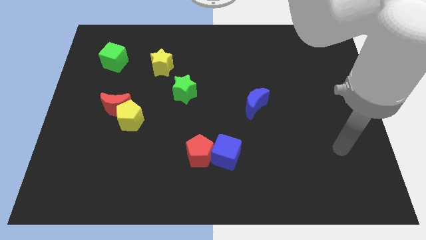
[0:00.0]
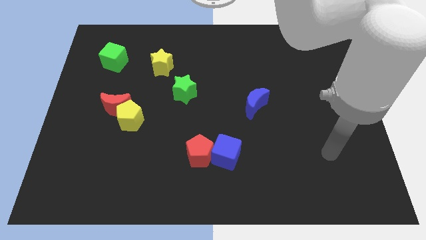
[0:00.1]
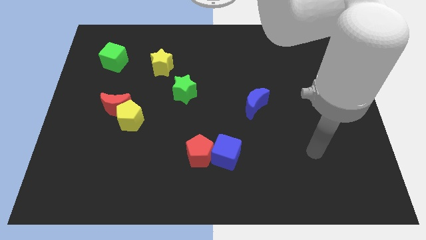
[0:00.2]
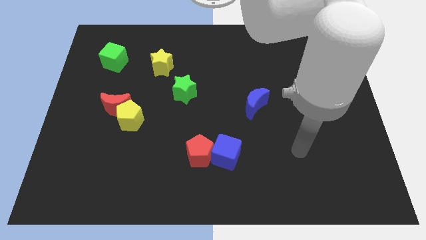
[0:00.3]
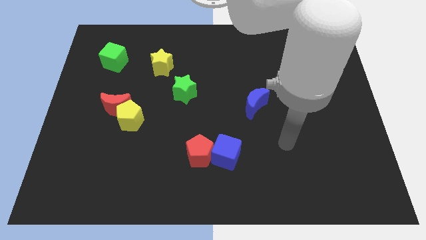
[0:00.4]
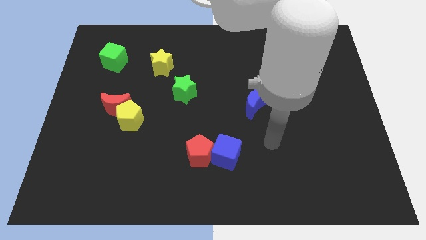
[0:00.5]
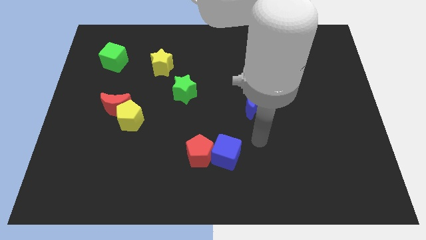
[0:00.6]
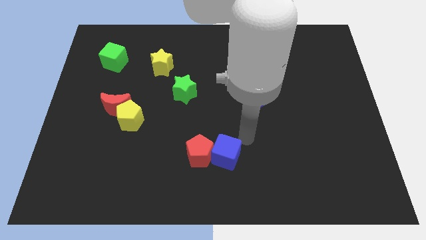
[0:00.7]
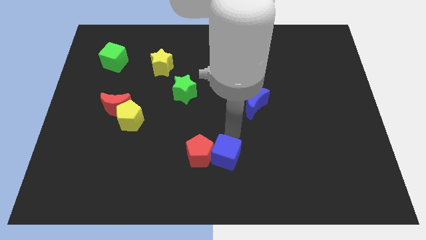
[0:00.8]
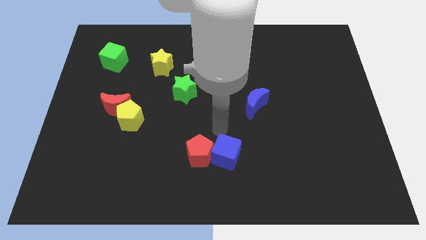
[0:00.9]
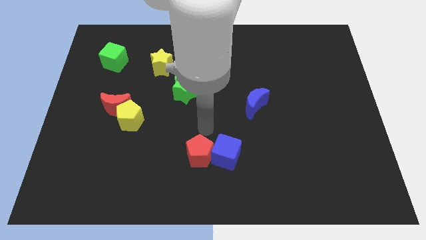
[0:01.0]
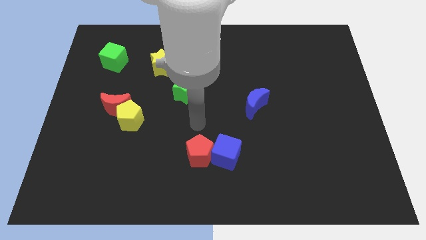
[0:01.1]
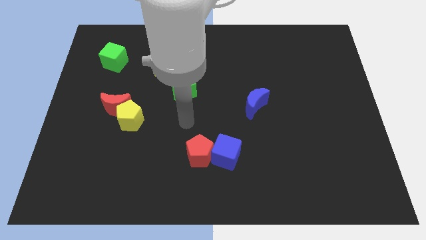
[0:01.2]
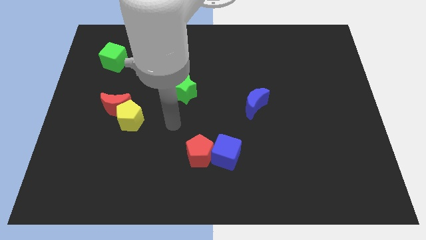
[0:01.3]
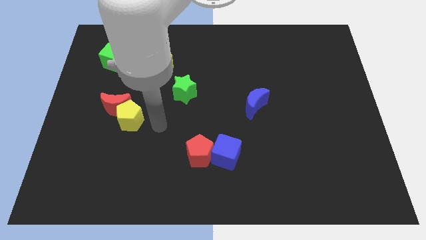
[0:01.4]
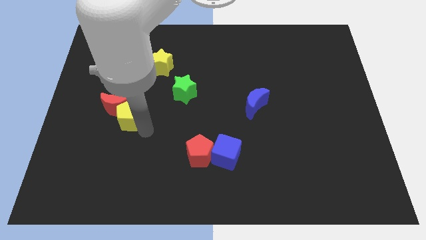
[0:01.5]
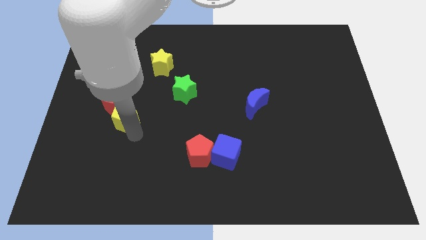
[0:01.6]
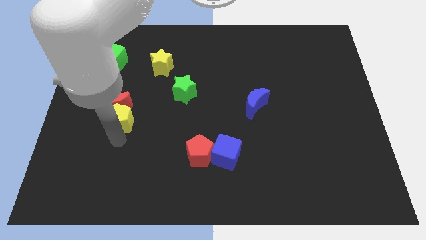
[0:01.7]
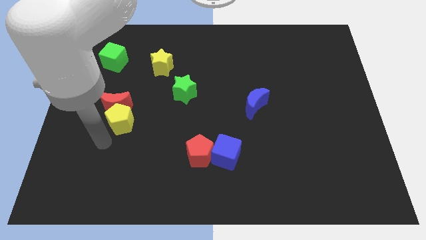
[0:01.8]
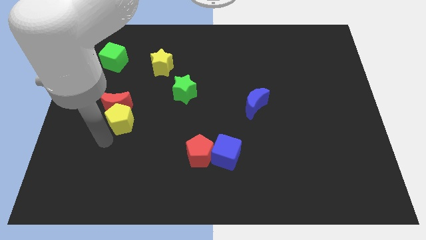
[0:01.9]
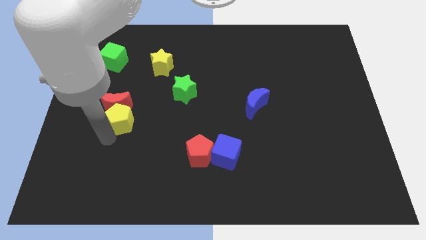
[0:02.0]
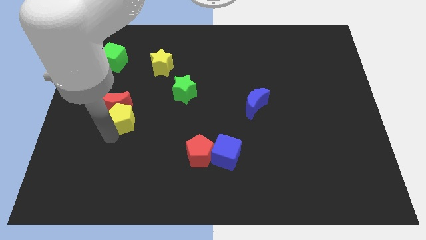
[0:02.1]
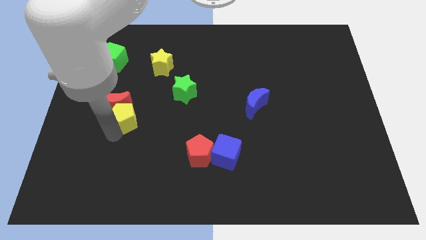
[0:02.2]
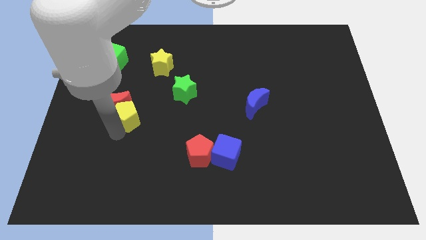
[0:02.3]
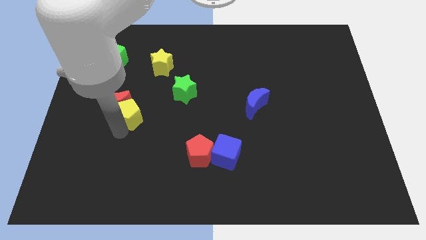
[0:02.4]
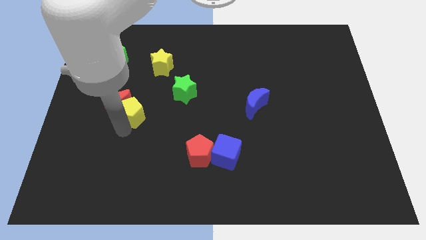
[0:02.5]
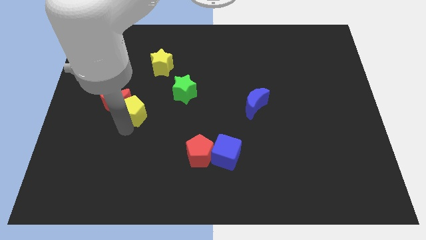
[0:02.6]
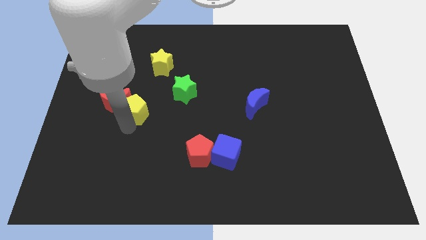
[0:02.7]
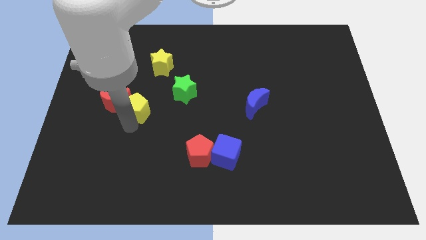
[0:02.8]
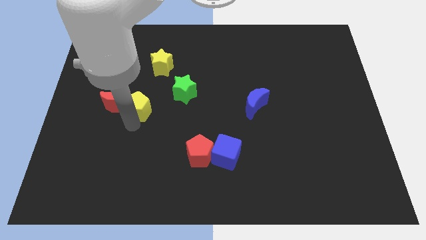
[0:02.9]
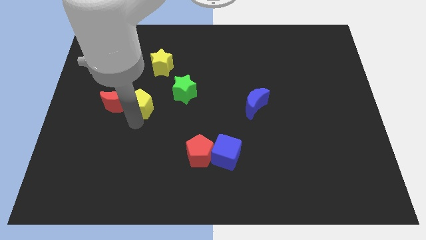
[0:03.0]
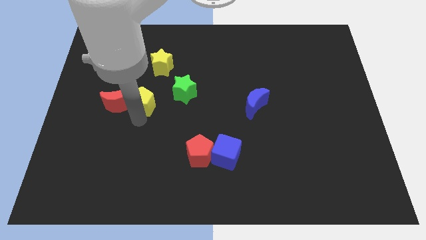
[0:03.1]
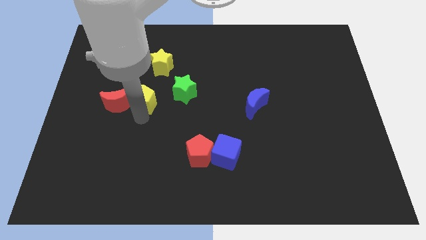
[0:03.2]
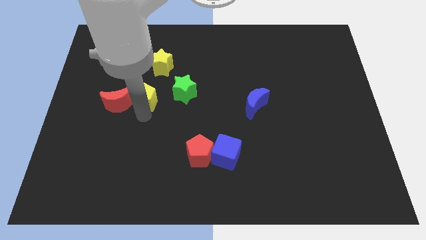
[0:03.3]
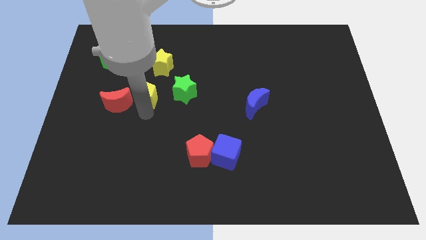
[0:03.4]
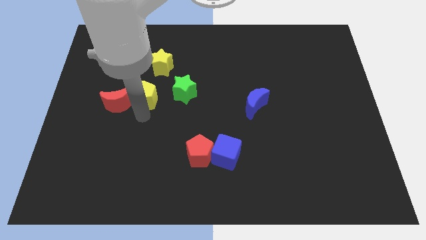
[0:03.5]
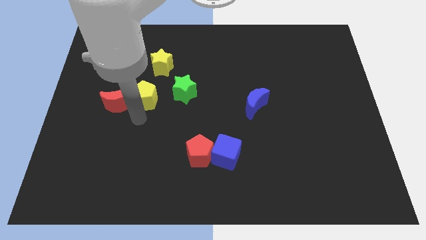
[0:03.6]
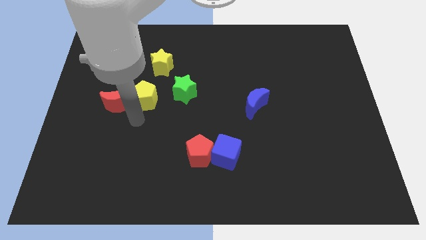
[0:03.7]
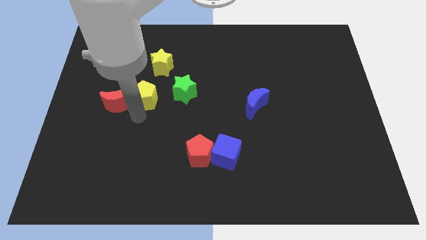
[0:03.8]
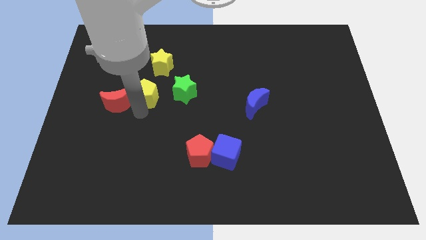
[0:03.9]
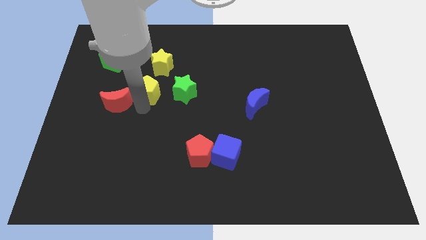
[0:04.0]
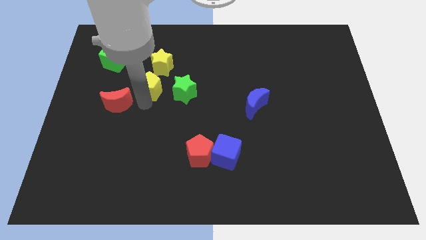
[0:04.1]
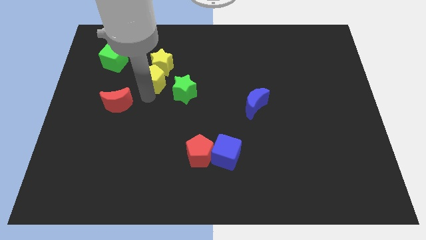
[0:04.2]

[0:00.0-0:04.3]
slide the yellow pentagon to the yellow star

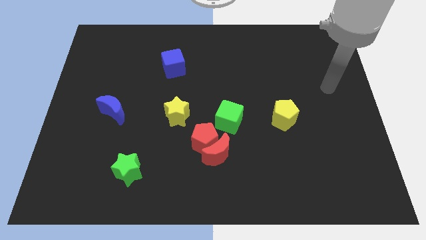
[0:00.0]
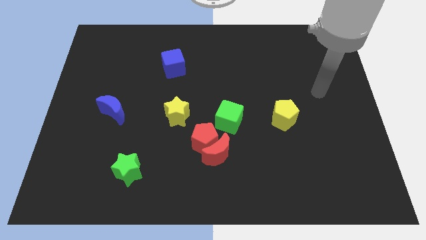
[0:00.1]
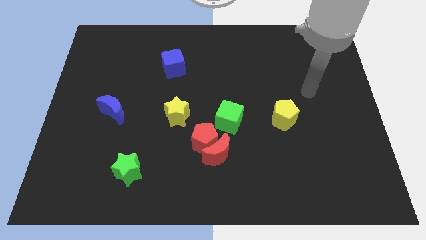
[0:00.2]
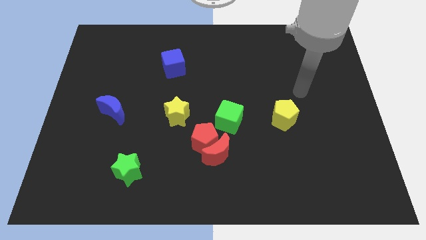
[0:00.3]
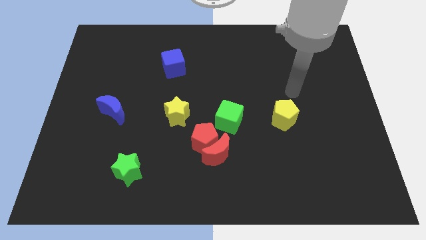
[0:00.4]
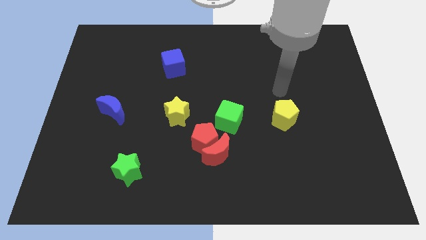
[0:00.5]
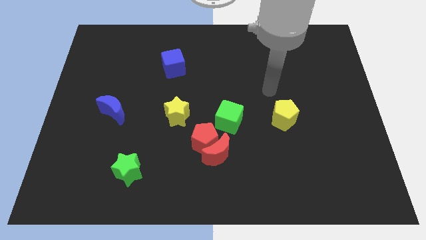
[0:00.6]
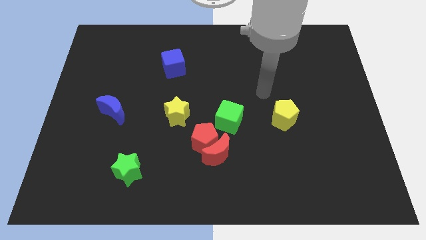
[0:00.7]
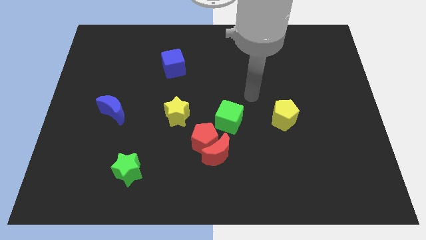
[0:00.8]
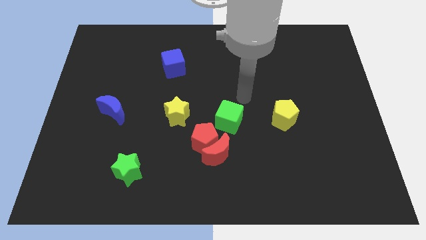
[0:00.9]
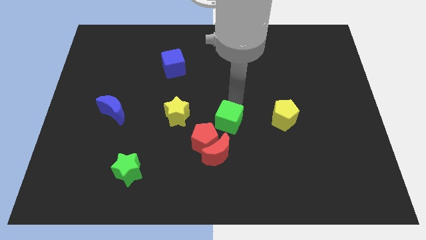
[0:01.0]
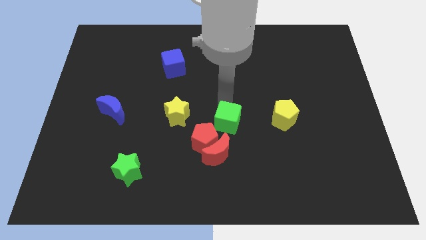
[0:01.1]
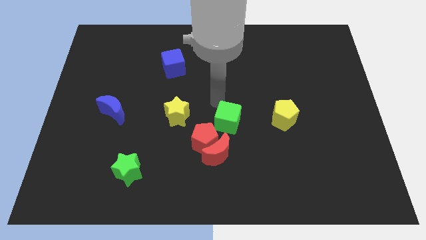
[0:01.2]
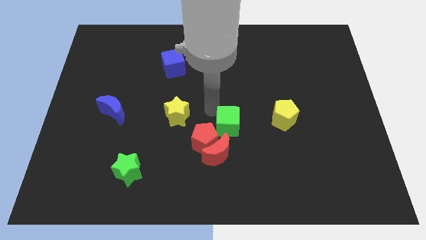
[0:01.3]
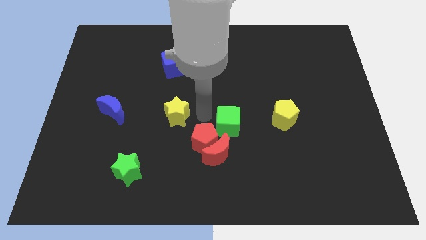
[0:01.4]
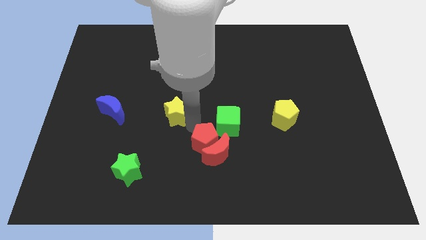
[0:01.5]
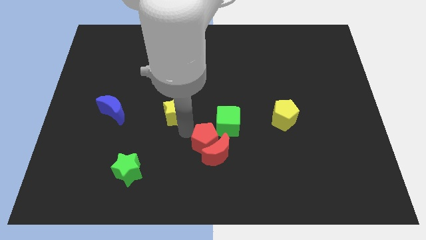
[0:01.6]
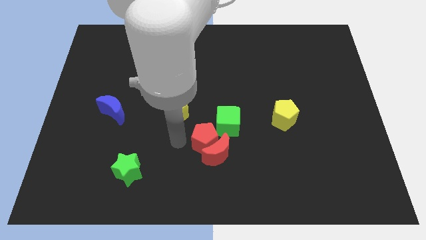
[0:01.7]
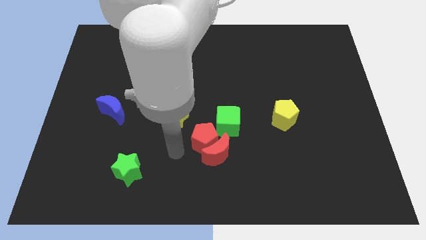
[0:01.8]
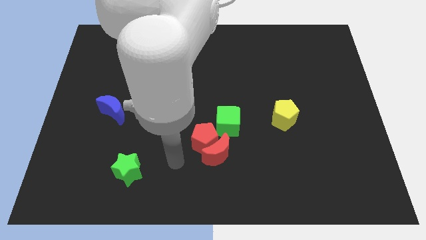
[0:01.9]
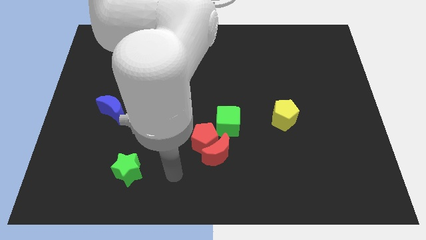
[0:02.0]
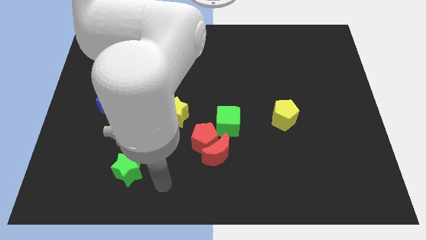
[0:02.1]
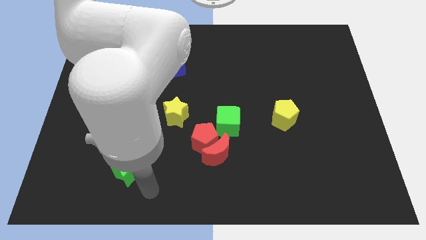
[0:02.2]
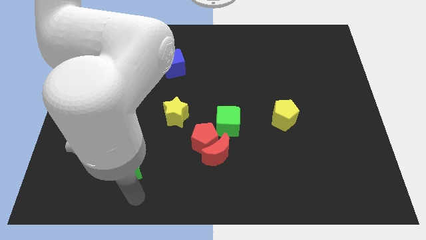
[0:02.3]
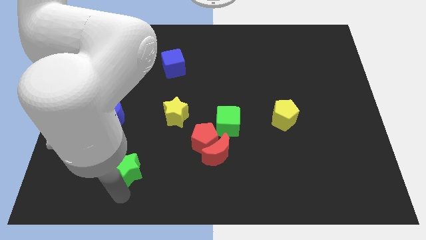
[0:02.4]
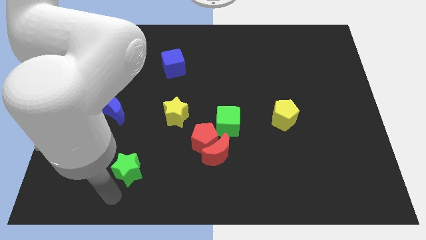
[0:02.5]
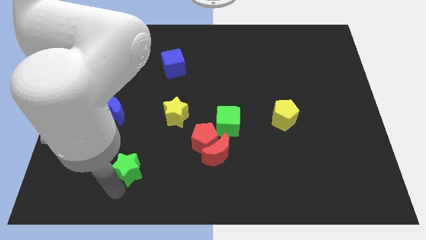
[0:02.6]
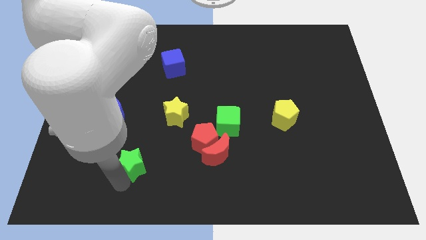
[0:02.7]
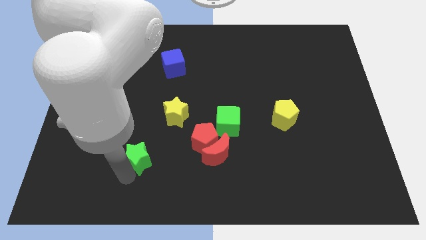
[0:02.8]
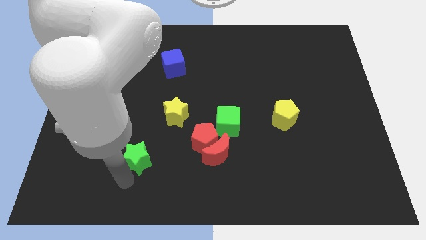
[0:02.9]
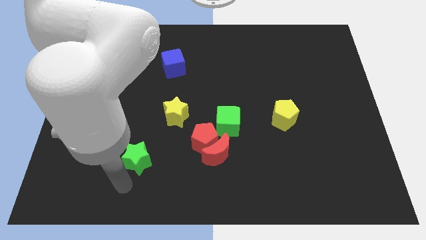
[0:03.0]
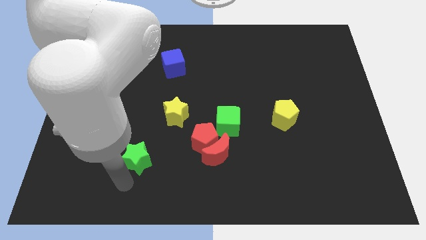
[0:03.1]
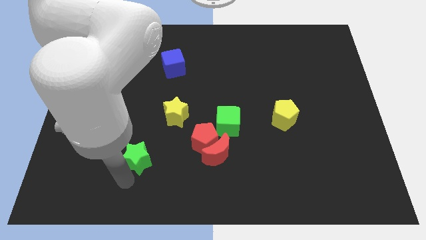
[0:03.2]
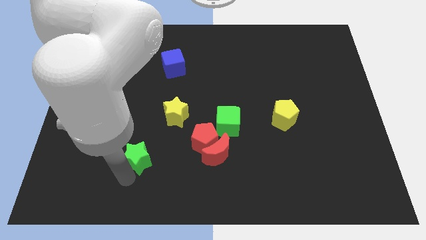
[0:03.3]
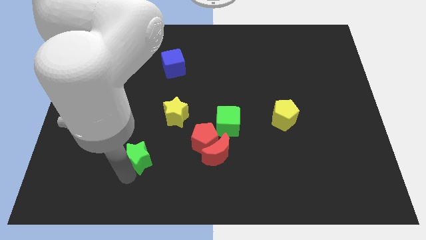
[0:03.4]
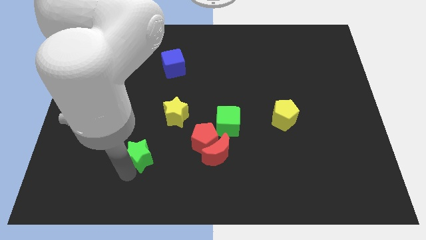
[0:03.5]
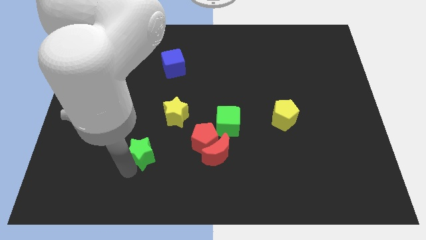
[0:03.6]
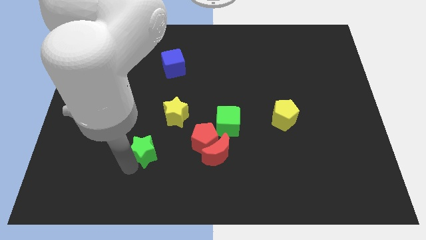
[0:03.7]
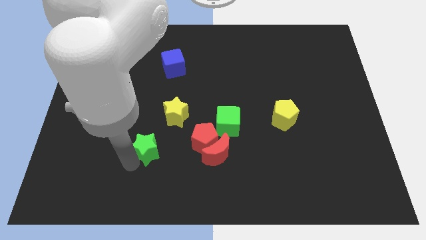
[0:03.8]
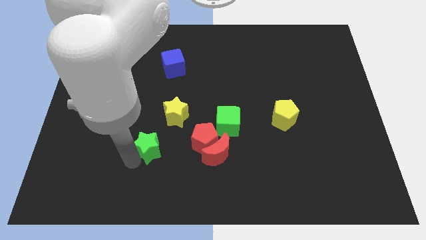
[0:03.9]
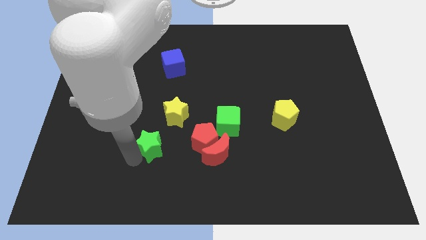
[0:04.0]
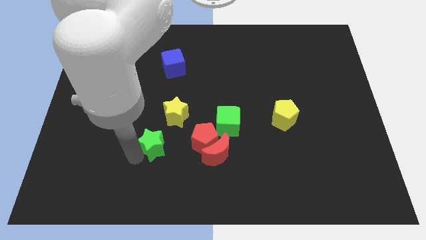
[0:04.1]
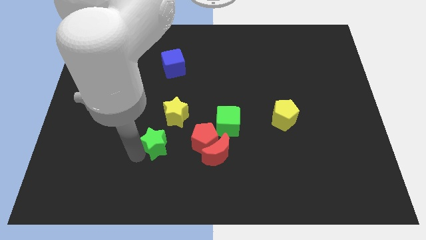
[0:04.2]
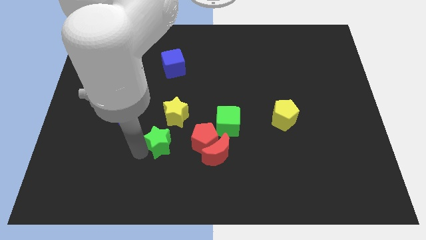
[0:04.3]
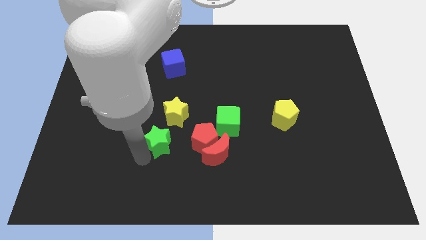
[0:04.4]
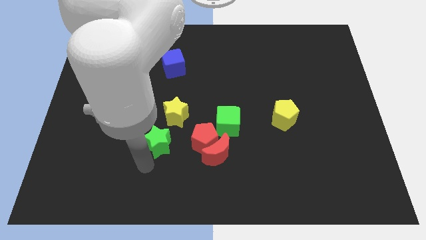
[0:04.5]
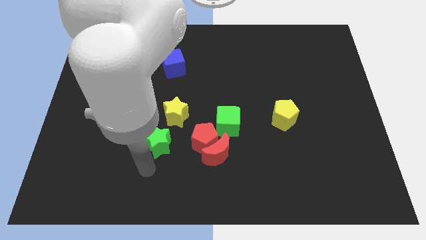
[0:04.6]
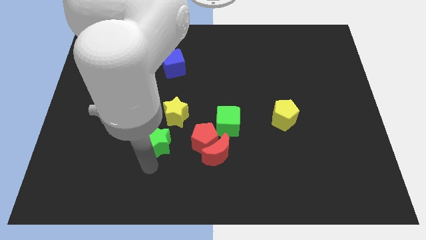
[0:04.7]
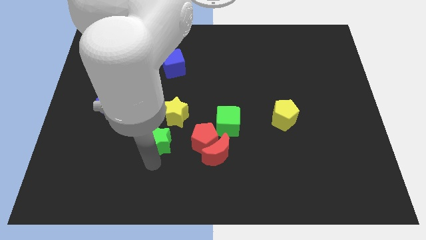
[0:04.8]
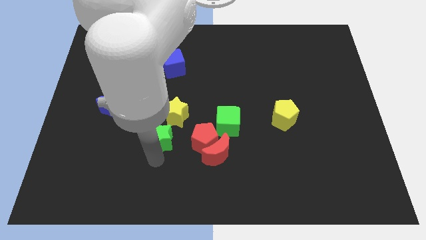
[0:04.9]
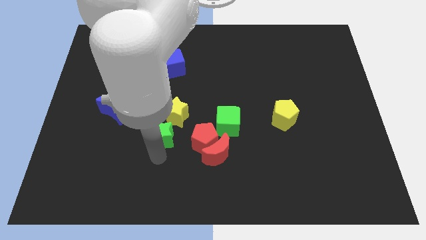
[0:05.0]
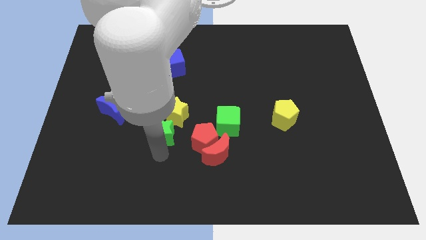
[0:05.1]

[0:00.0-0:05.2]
move the green star next to the yellow star
